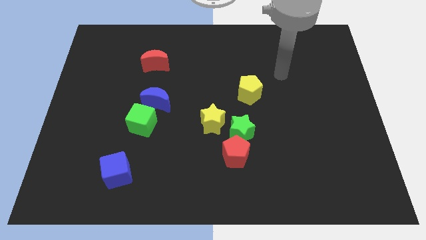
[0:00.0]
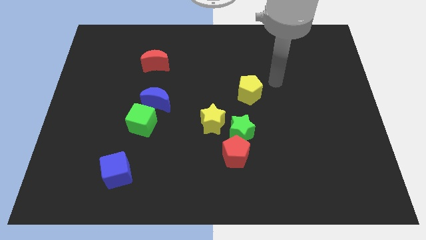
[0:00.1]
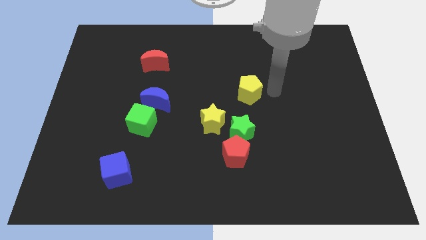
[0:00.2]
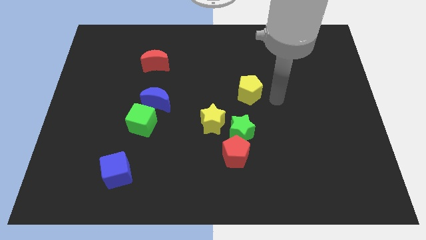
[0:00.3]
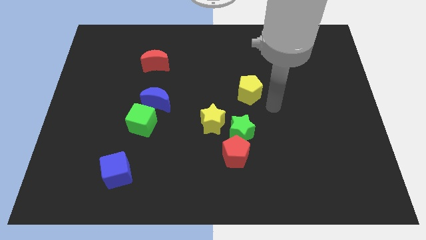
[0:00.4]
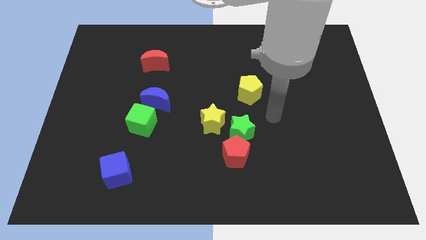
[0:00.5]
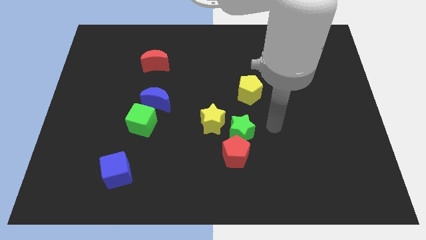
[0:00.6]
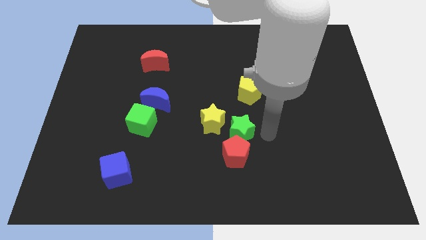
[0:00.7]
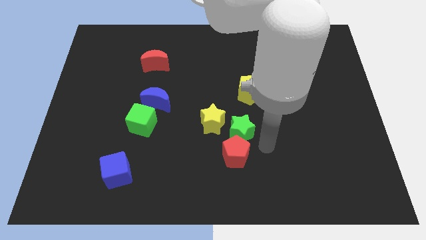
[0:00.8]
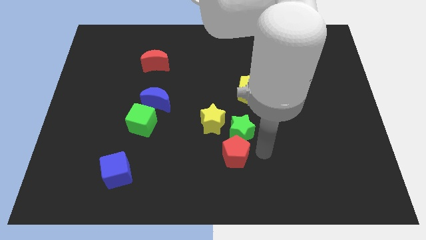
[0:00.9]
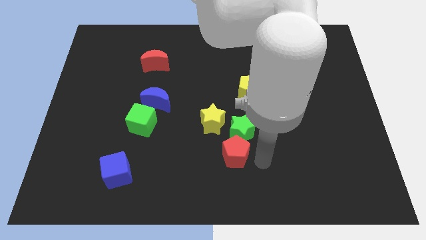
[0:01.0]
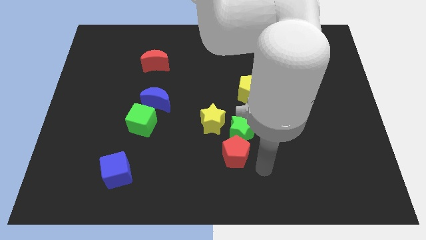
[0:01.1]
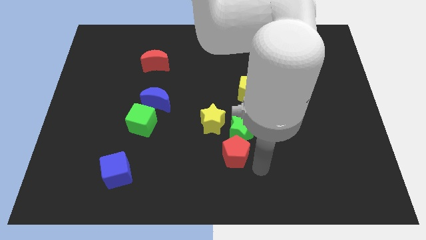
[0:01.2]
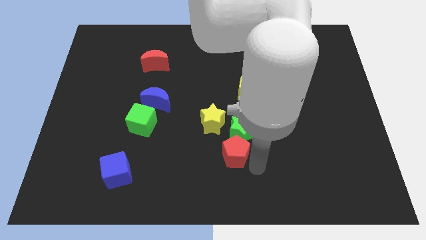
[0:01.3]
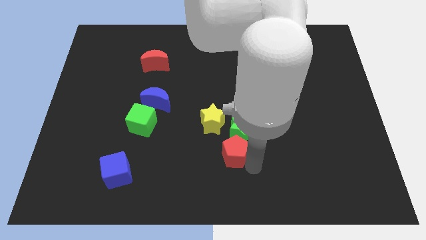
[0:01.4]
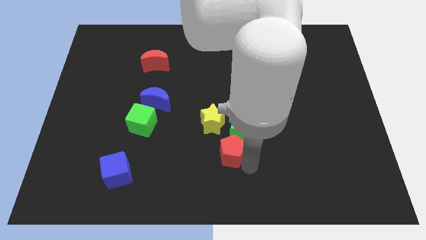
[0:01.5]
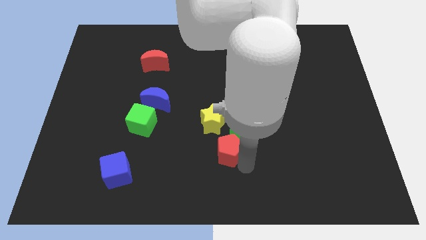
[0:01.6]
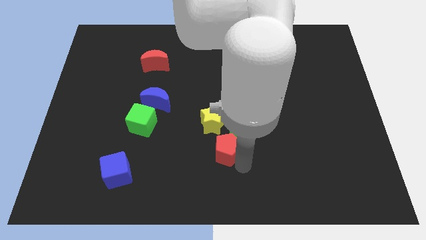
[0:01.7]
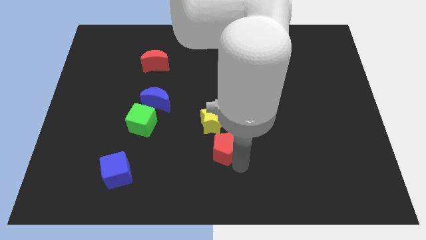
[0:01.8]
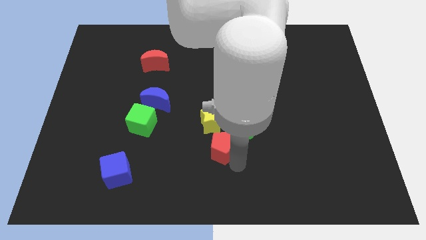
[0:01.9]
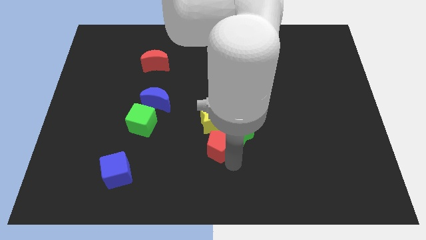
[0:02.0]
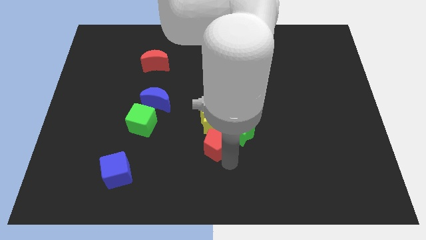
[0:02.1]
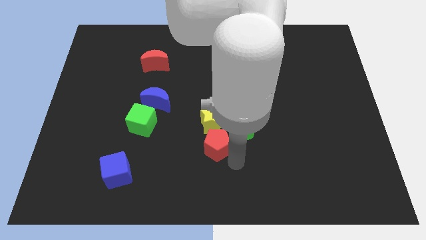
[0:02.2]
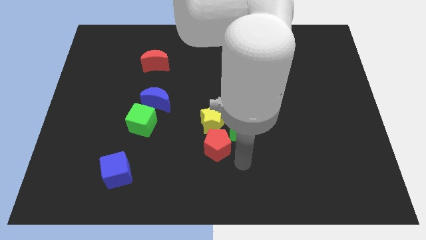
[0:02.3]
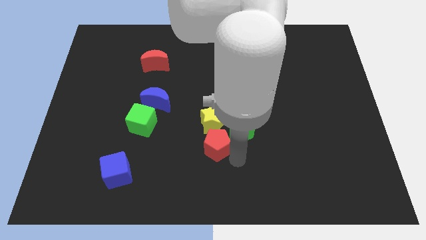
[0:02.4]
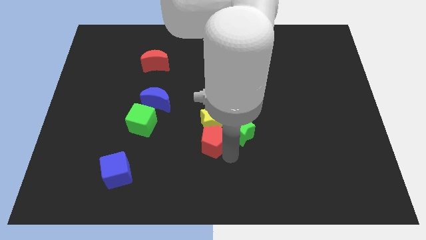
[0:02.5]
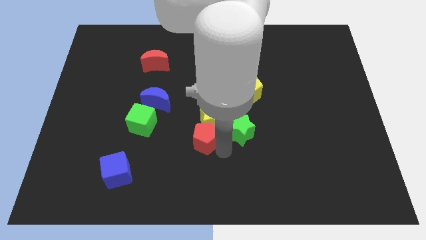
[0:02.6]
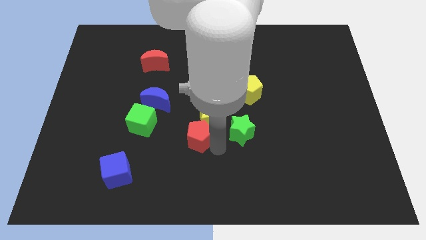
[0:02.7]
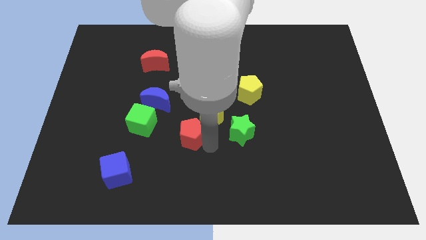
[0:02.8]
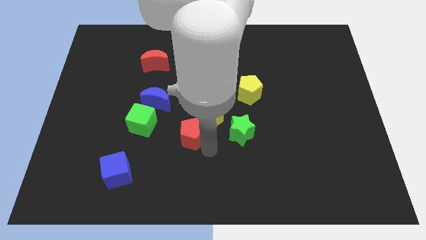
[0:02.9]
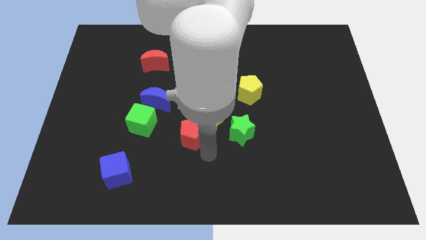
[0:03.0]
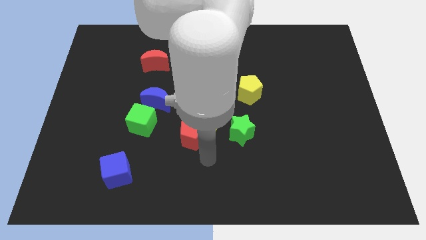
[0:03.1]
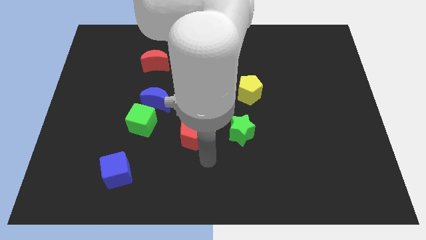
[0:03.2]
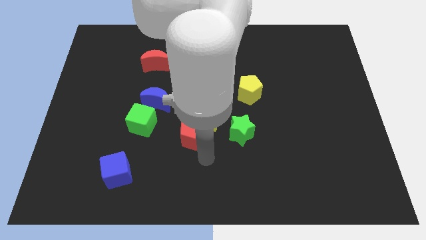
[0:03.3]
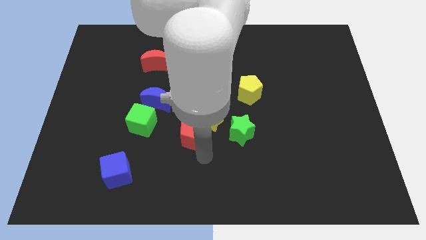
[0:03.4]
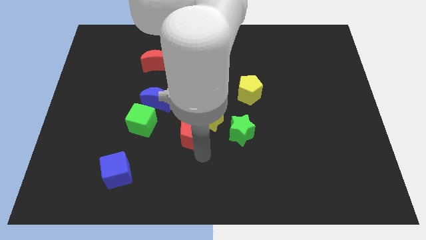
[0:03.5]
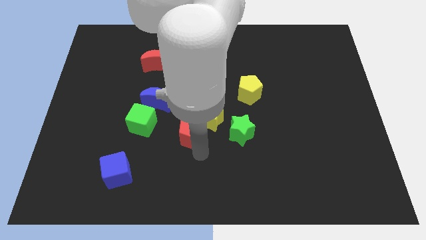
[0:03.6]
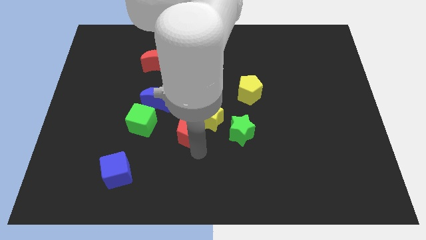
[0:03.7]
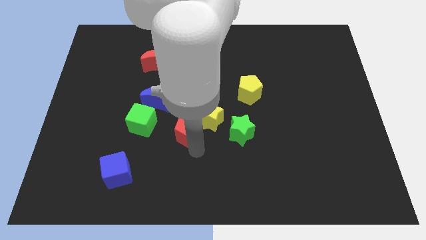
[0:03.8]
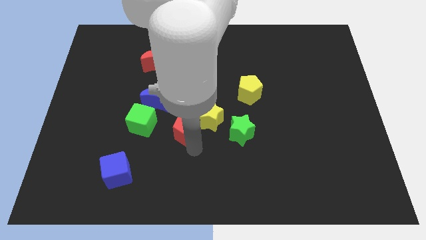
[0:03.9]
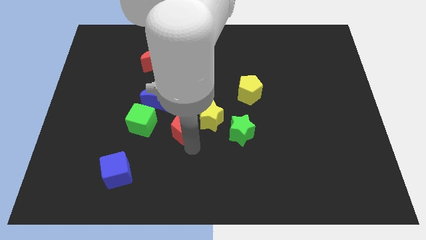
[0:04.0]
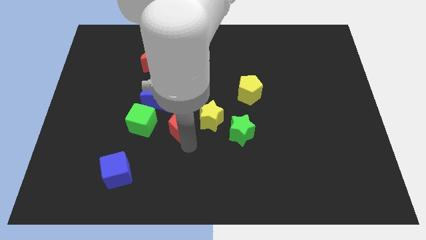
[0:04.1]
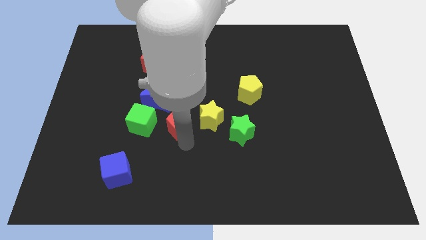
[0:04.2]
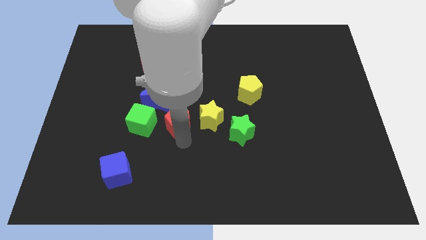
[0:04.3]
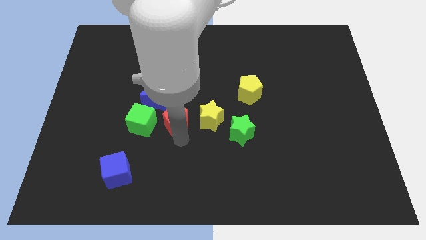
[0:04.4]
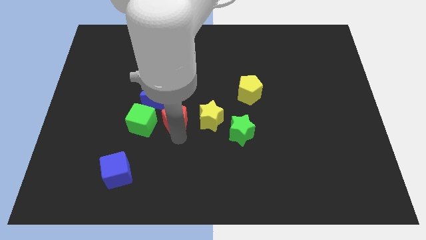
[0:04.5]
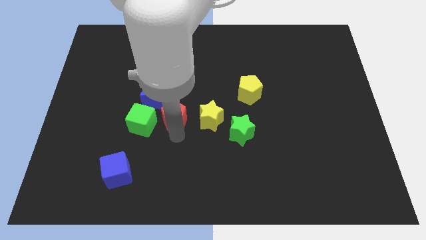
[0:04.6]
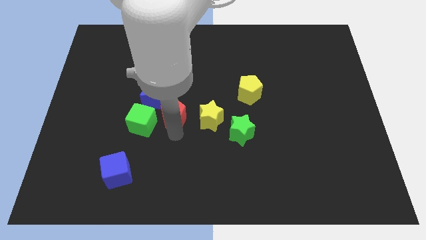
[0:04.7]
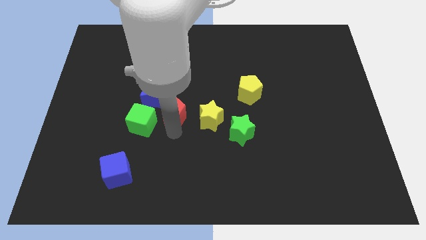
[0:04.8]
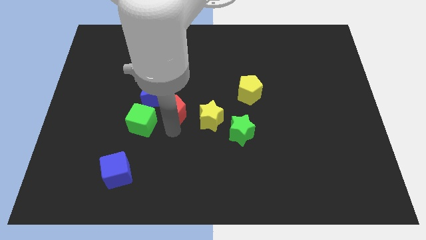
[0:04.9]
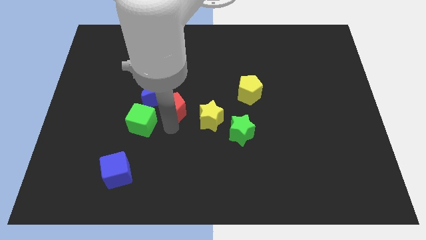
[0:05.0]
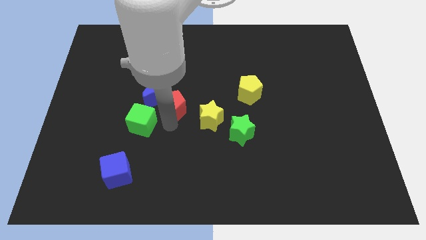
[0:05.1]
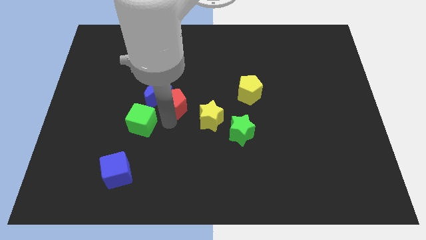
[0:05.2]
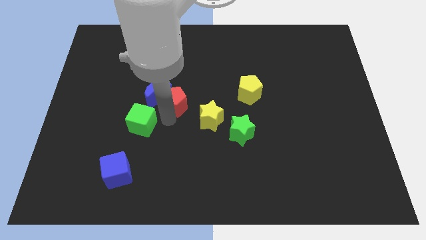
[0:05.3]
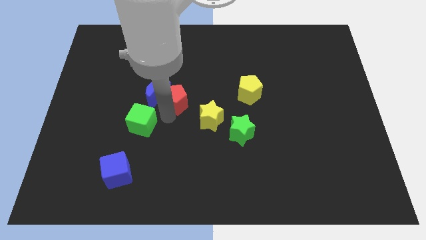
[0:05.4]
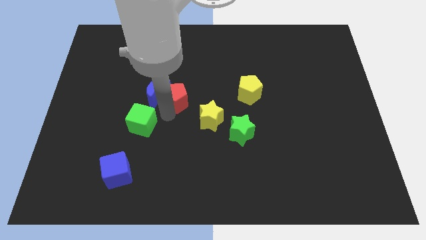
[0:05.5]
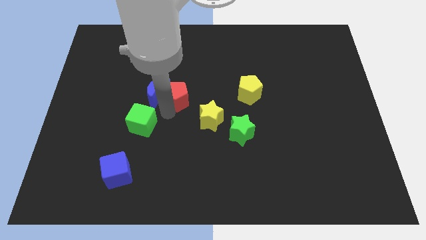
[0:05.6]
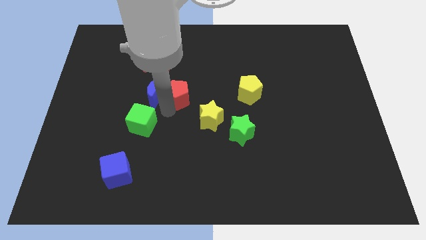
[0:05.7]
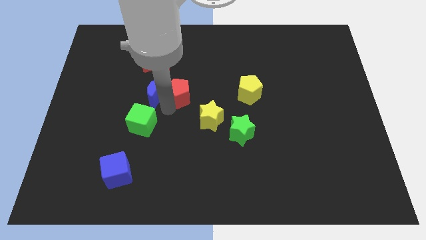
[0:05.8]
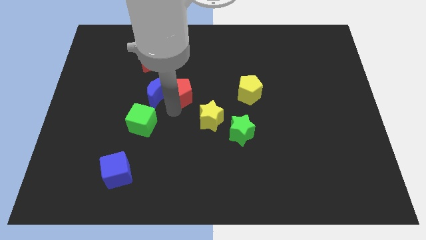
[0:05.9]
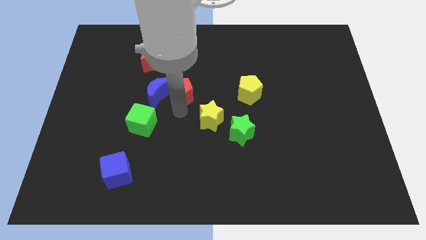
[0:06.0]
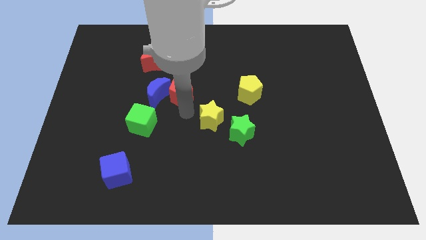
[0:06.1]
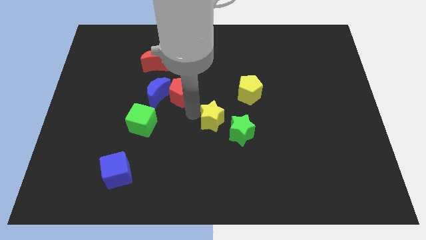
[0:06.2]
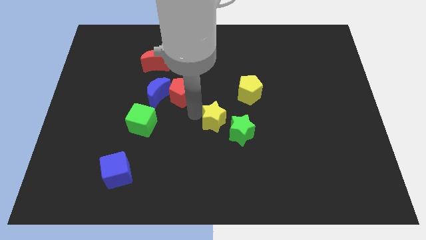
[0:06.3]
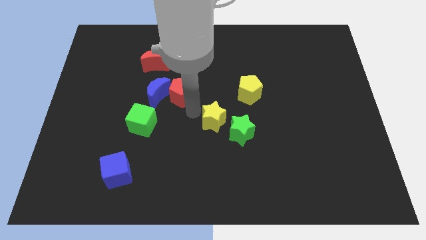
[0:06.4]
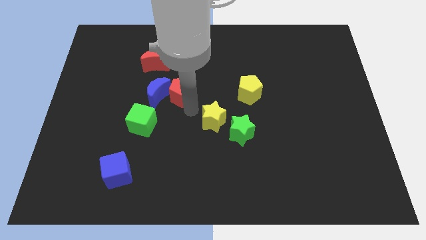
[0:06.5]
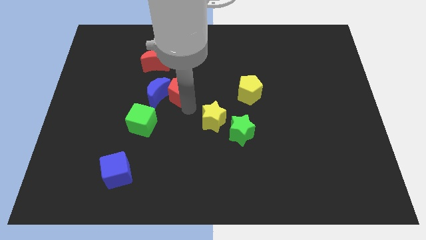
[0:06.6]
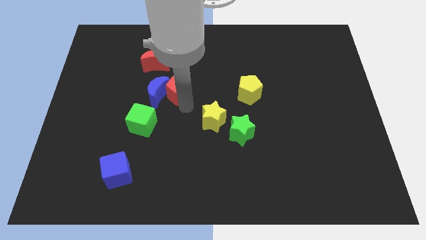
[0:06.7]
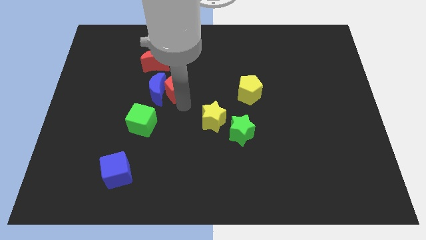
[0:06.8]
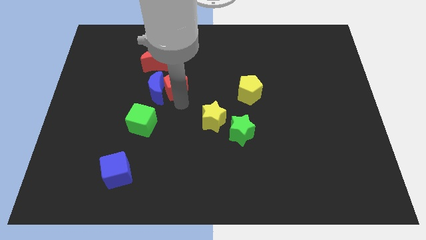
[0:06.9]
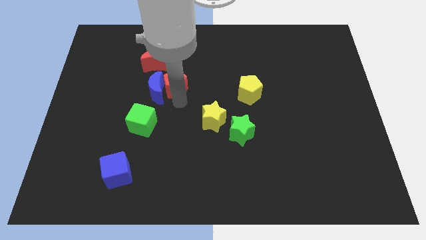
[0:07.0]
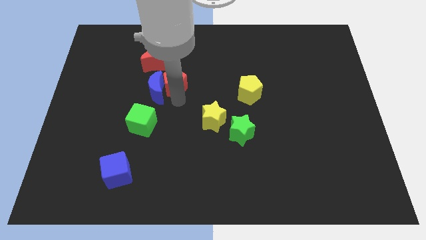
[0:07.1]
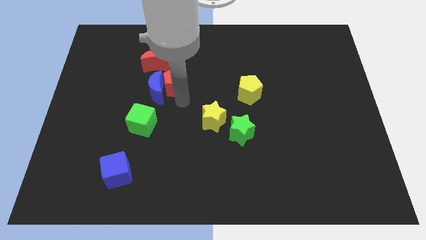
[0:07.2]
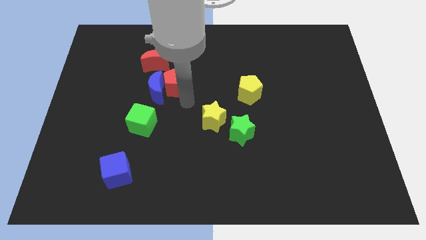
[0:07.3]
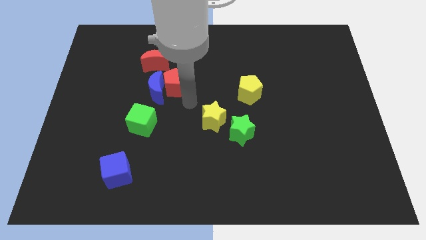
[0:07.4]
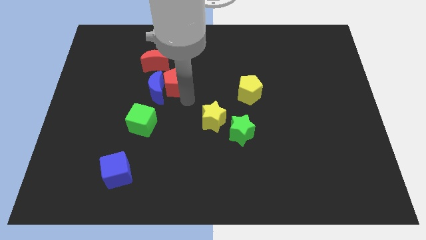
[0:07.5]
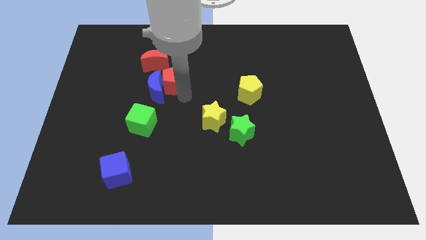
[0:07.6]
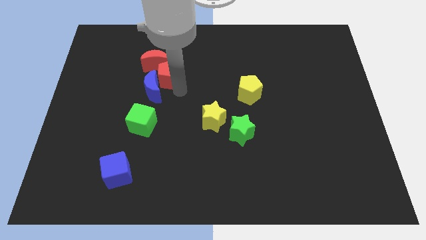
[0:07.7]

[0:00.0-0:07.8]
put the red pentagon towards the red moon

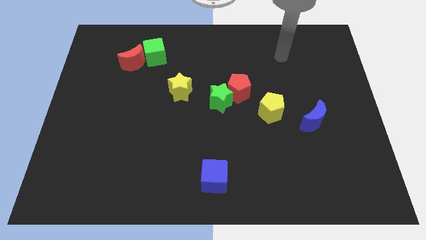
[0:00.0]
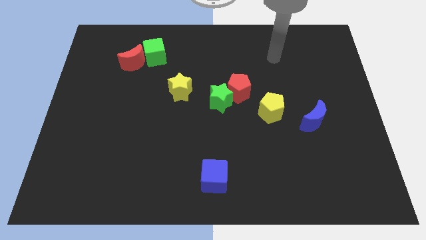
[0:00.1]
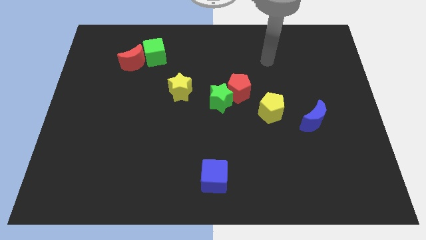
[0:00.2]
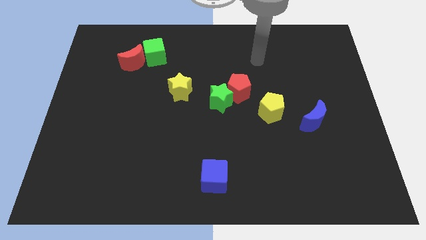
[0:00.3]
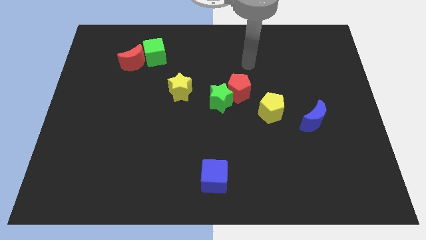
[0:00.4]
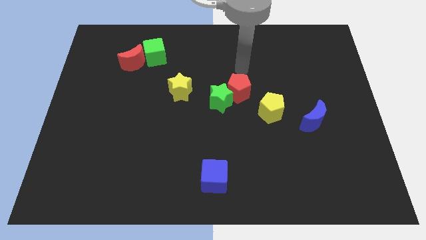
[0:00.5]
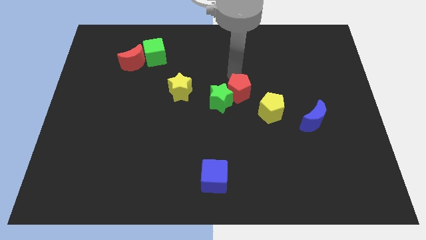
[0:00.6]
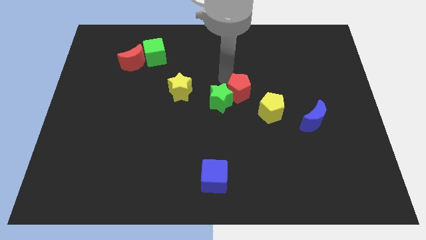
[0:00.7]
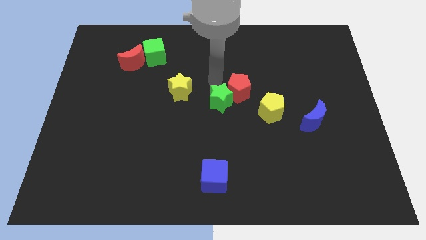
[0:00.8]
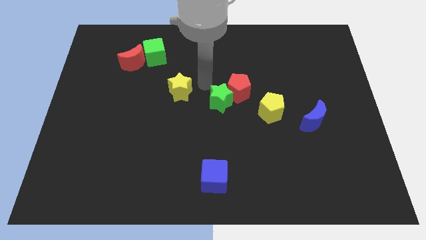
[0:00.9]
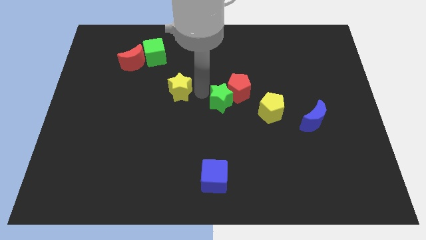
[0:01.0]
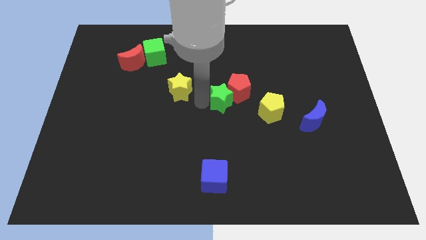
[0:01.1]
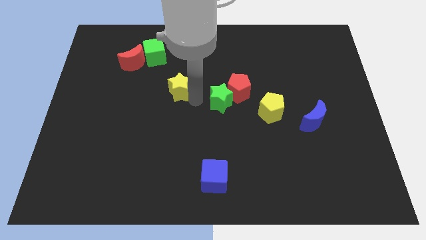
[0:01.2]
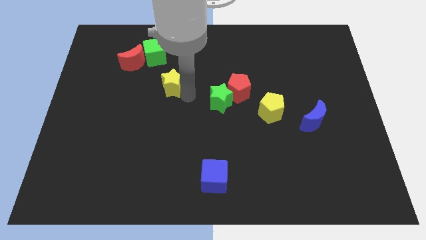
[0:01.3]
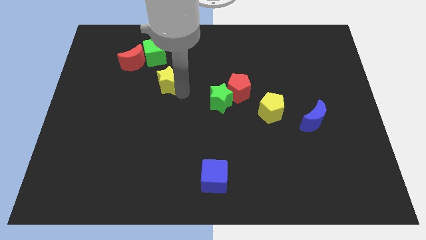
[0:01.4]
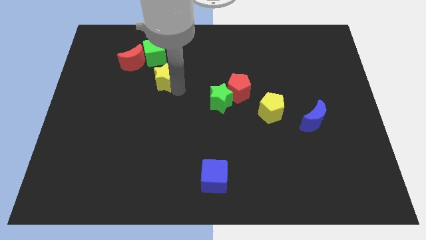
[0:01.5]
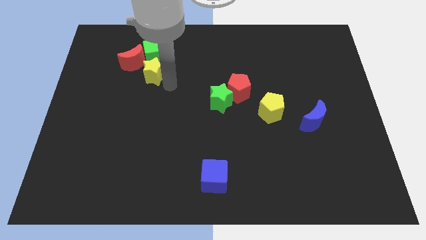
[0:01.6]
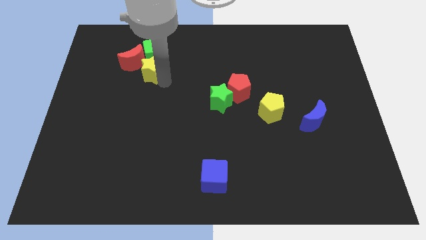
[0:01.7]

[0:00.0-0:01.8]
push the yellow star towards the red moon
